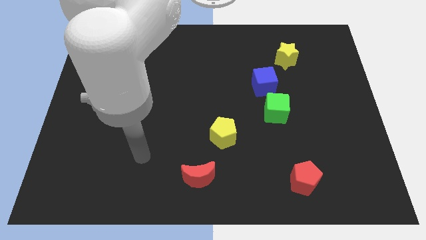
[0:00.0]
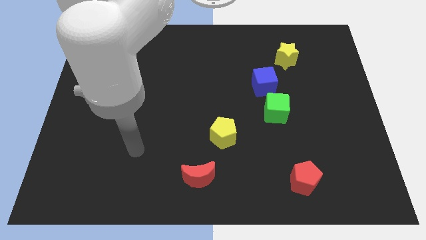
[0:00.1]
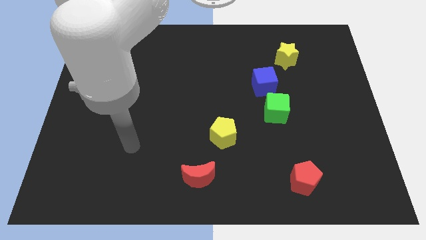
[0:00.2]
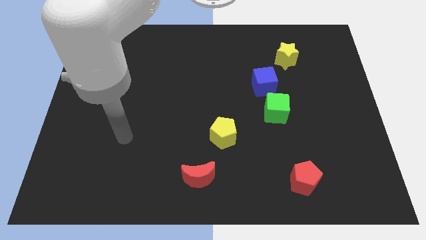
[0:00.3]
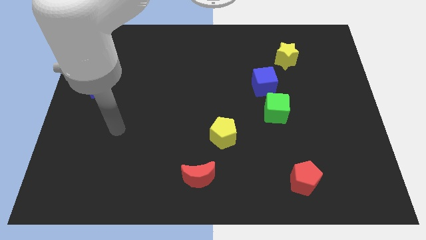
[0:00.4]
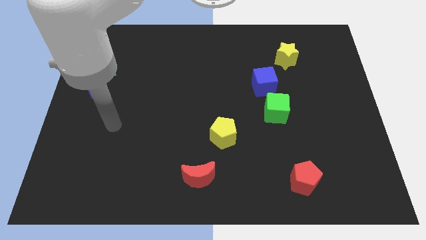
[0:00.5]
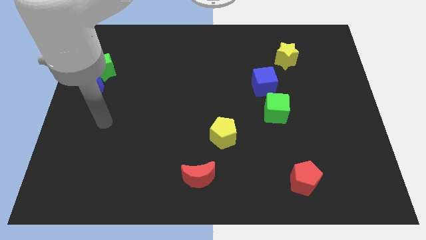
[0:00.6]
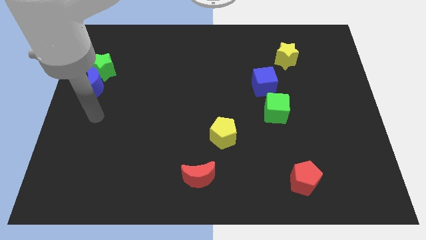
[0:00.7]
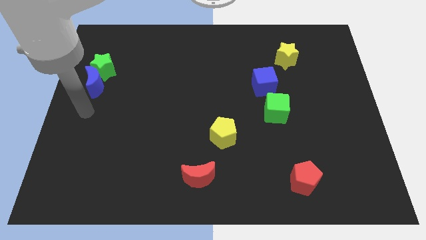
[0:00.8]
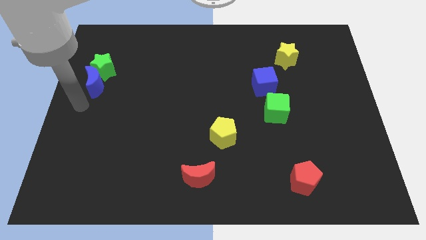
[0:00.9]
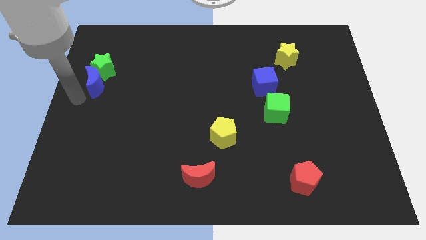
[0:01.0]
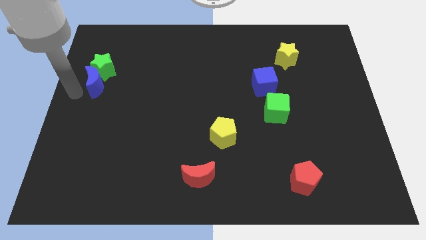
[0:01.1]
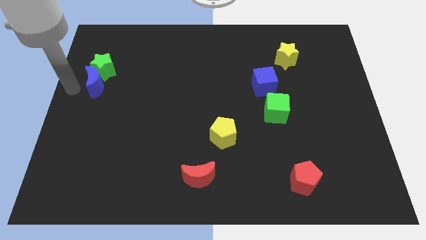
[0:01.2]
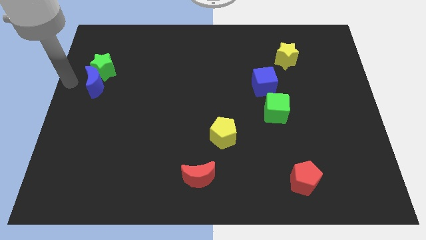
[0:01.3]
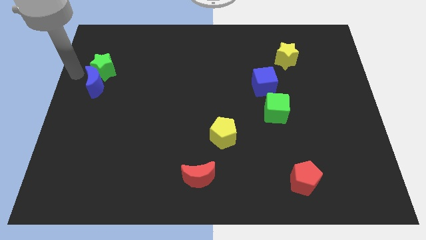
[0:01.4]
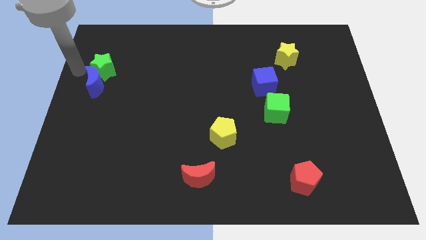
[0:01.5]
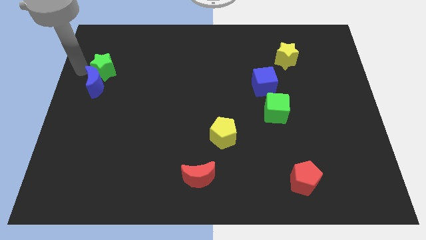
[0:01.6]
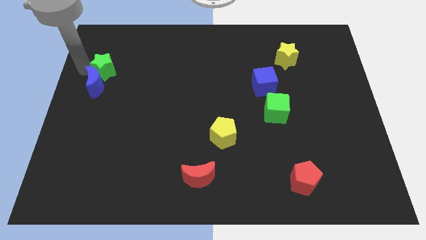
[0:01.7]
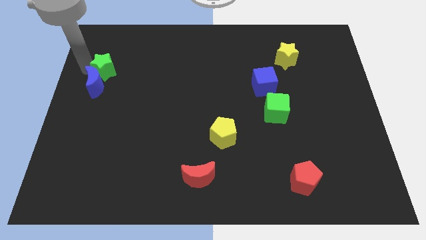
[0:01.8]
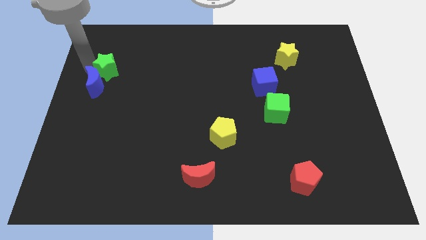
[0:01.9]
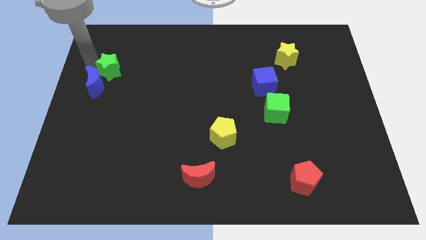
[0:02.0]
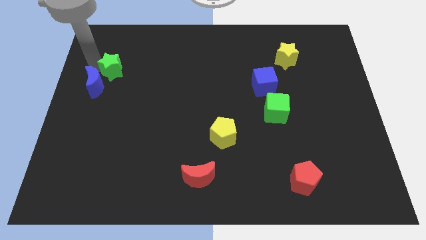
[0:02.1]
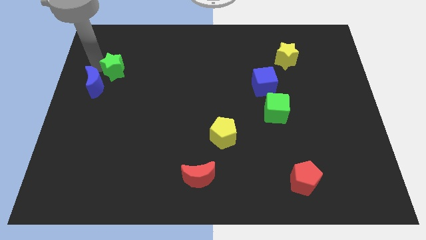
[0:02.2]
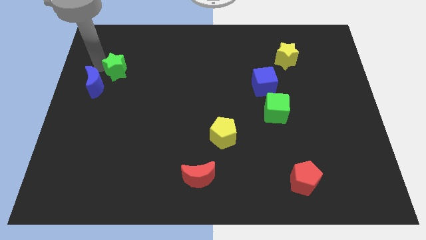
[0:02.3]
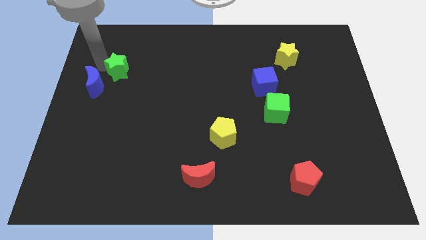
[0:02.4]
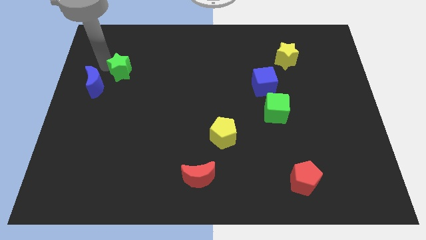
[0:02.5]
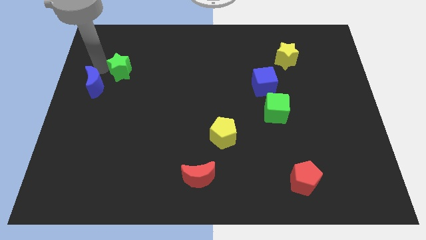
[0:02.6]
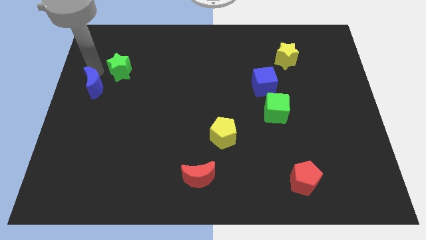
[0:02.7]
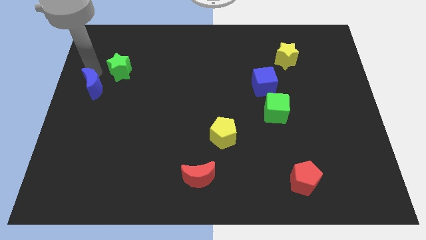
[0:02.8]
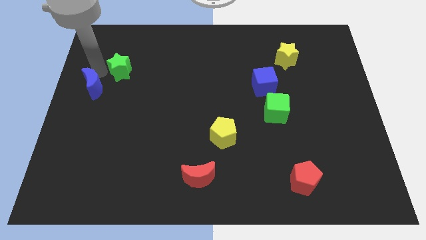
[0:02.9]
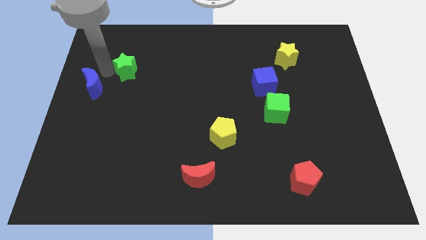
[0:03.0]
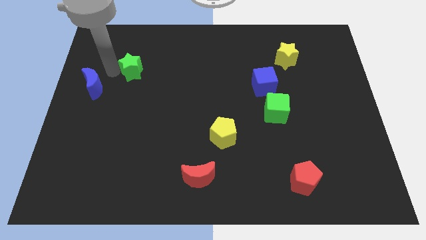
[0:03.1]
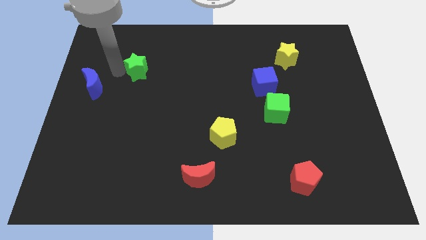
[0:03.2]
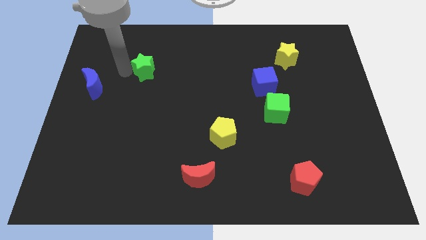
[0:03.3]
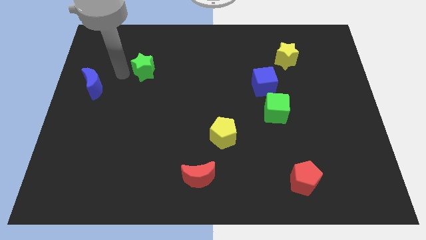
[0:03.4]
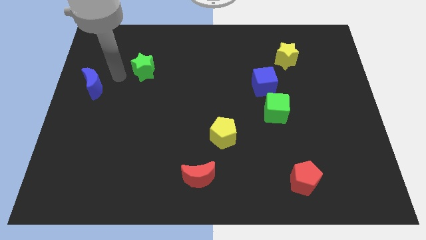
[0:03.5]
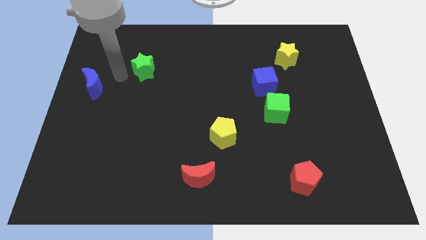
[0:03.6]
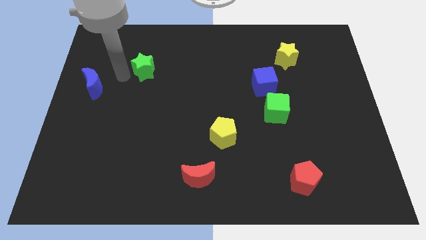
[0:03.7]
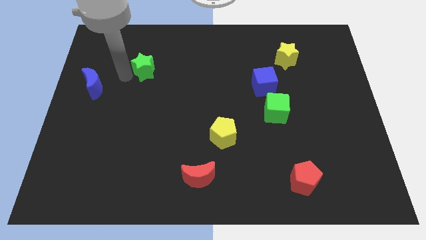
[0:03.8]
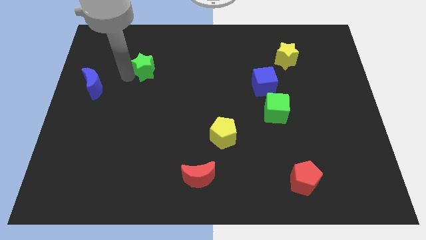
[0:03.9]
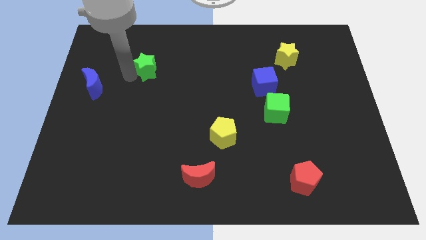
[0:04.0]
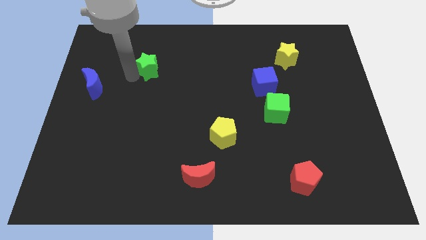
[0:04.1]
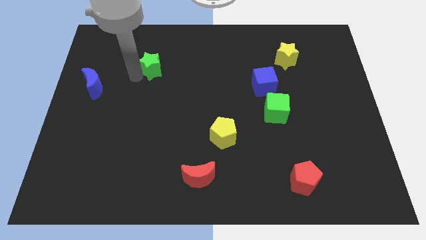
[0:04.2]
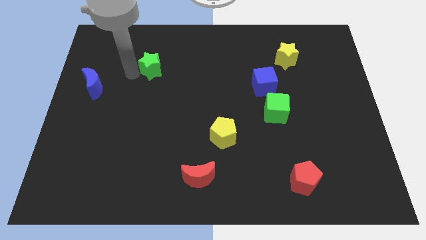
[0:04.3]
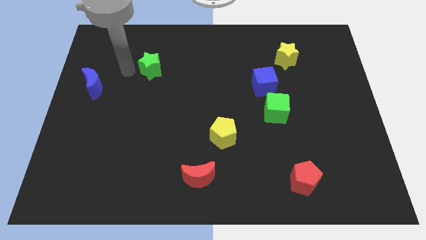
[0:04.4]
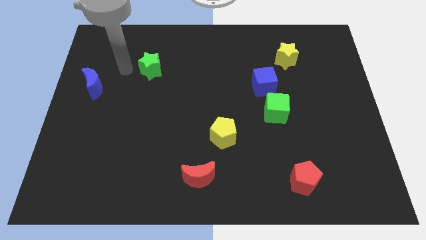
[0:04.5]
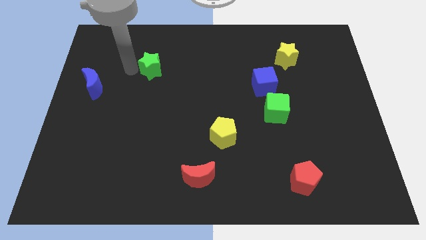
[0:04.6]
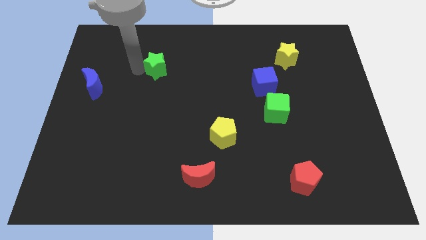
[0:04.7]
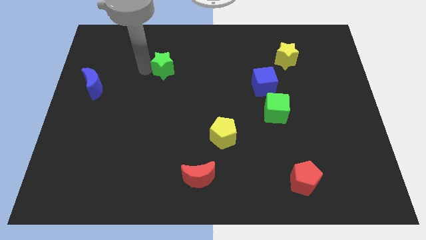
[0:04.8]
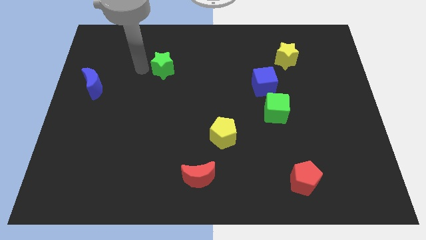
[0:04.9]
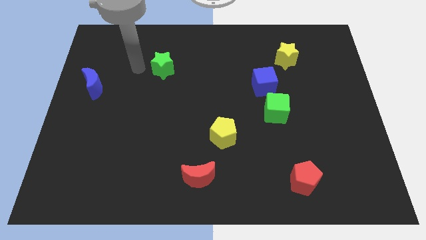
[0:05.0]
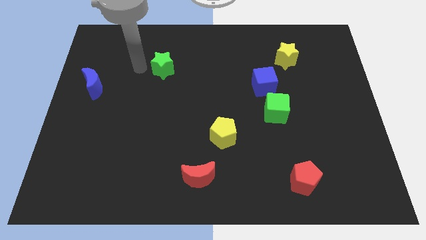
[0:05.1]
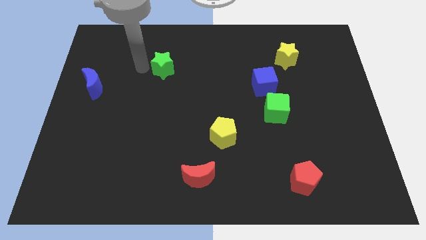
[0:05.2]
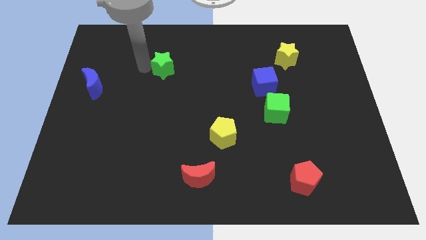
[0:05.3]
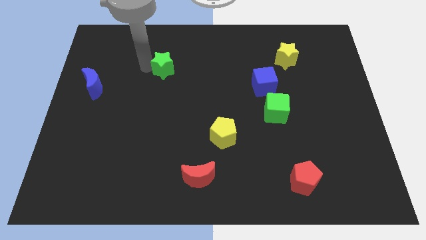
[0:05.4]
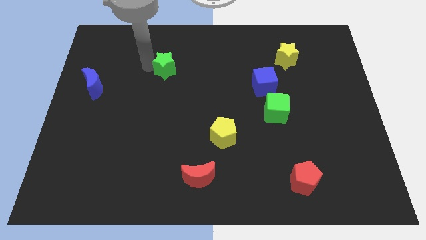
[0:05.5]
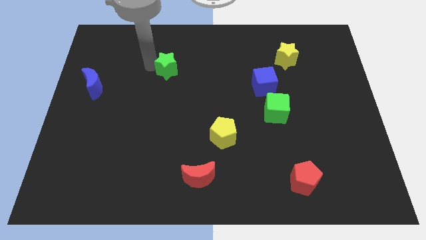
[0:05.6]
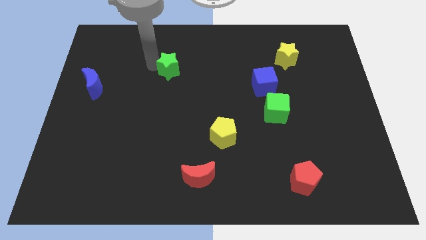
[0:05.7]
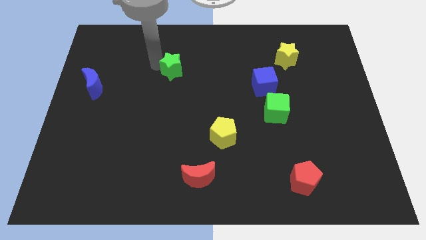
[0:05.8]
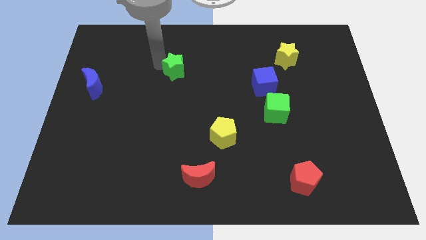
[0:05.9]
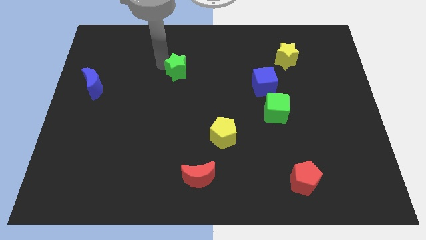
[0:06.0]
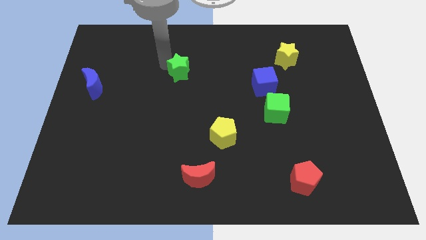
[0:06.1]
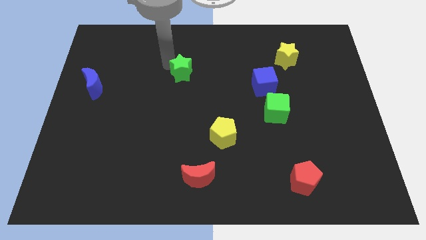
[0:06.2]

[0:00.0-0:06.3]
slide the green star to the right

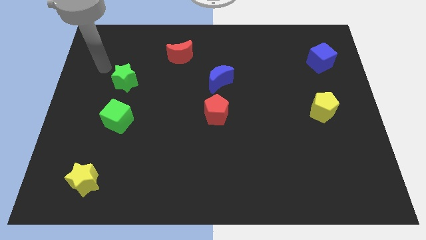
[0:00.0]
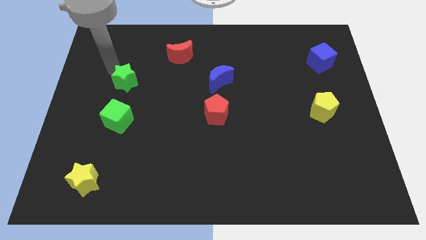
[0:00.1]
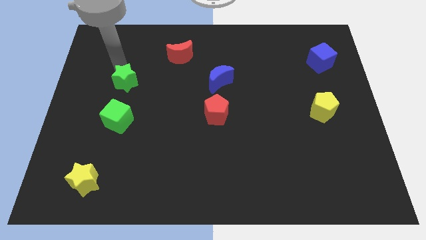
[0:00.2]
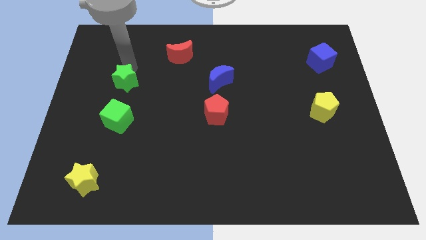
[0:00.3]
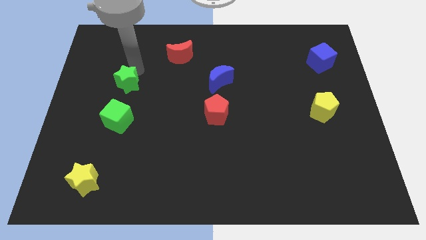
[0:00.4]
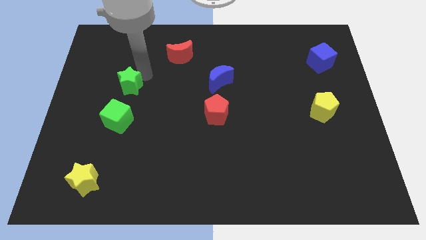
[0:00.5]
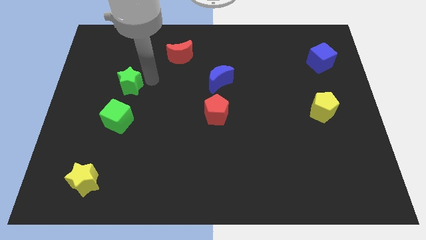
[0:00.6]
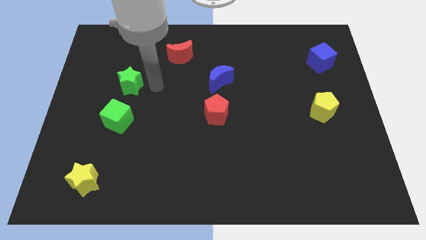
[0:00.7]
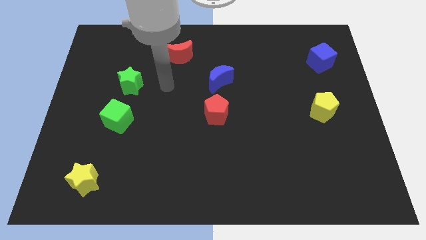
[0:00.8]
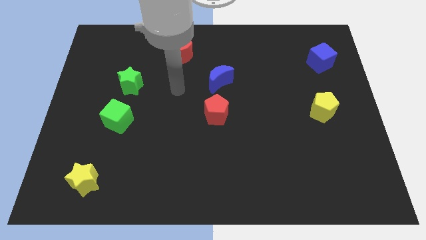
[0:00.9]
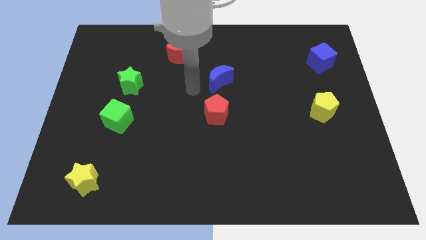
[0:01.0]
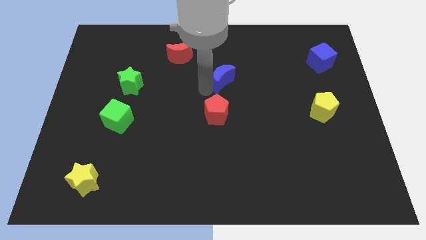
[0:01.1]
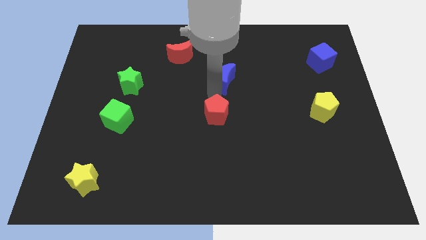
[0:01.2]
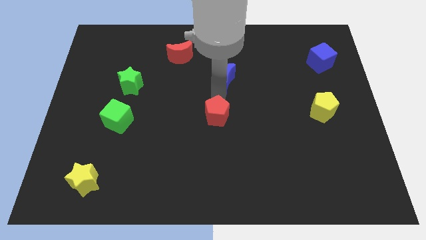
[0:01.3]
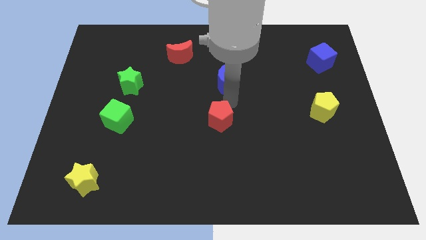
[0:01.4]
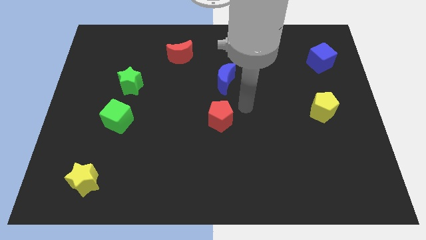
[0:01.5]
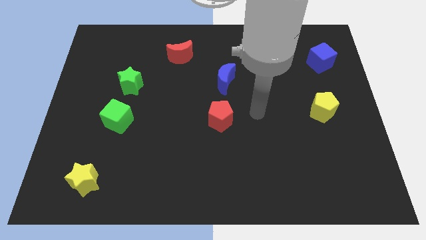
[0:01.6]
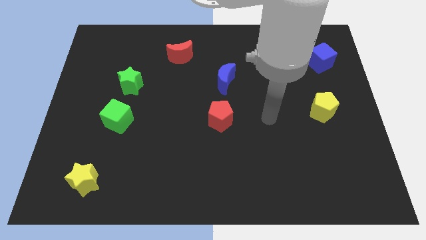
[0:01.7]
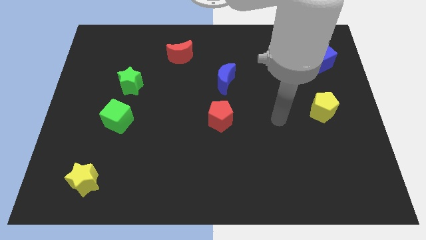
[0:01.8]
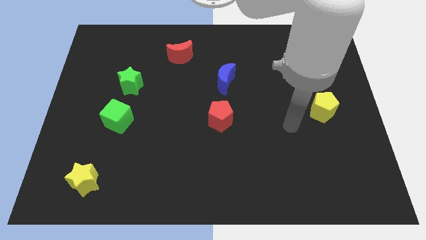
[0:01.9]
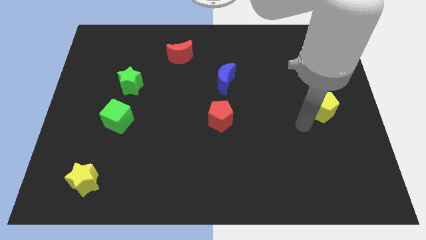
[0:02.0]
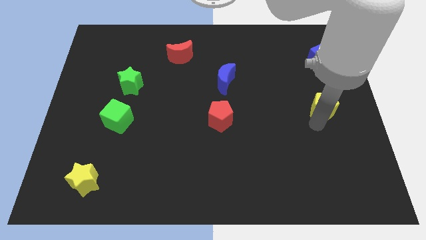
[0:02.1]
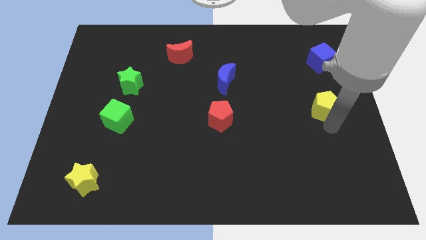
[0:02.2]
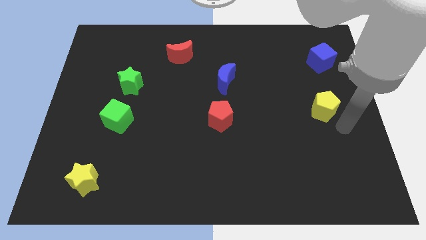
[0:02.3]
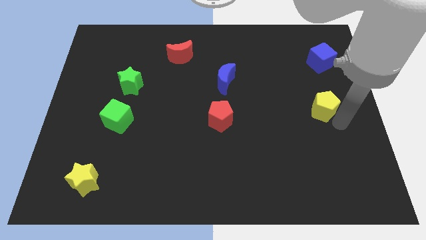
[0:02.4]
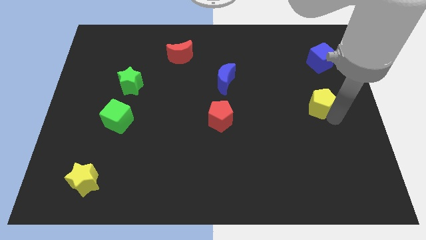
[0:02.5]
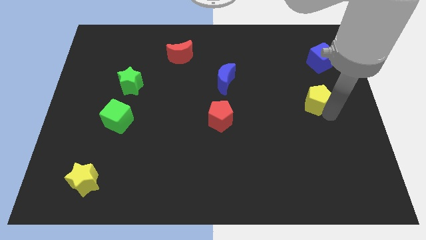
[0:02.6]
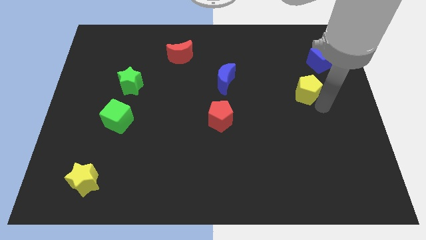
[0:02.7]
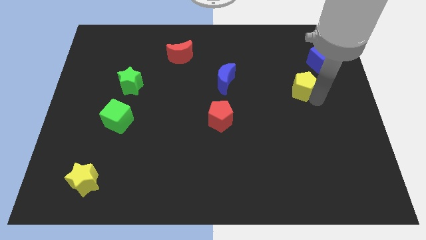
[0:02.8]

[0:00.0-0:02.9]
slide the yellow pentagon upwards and then to the left a bit
